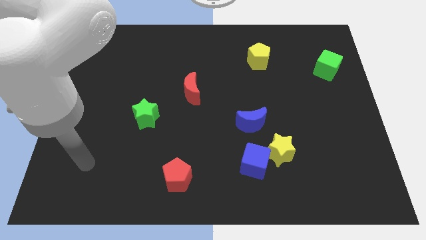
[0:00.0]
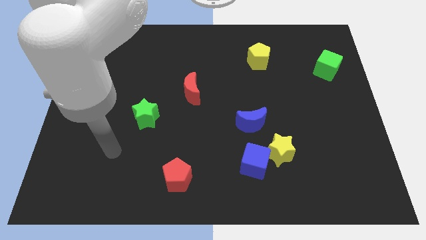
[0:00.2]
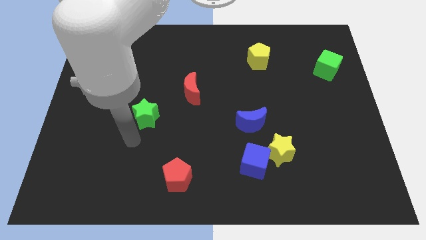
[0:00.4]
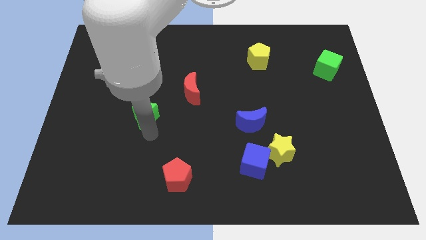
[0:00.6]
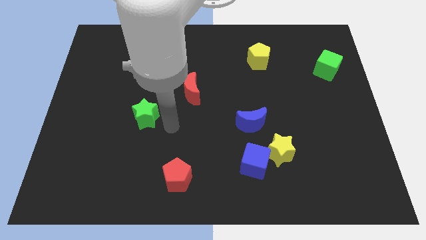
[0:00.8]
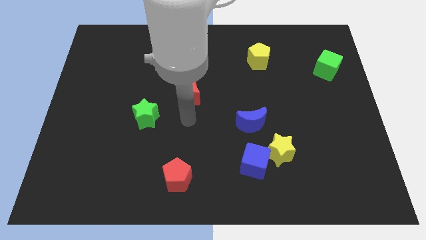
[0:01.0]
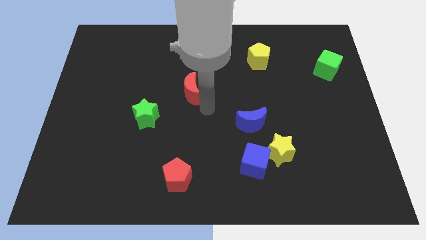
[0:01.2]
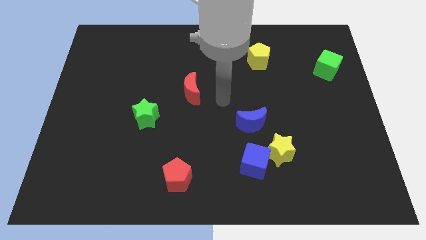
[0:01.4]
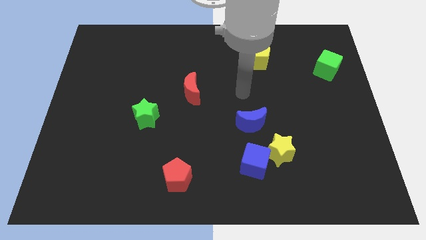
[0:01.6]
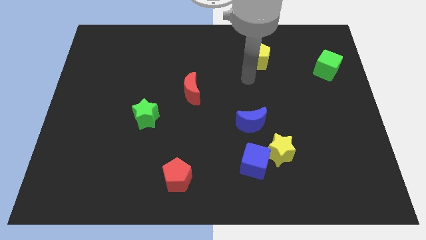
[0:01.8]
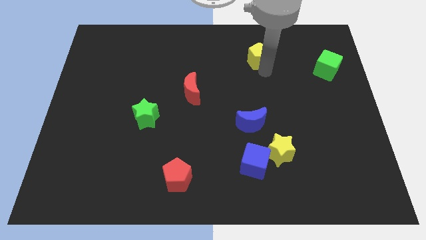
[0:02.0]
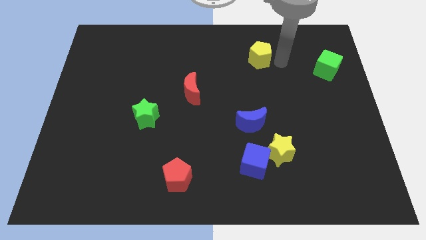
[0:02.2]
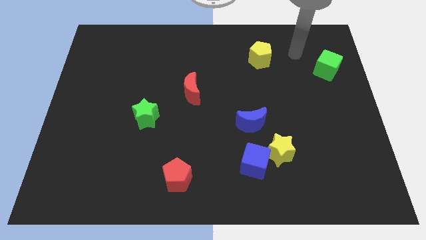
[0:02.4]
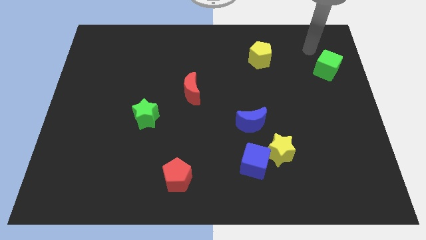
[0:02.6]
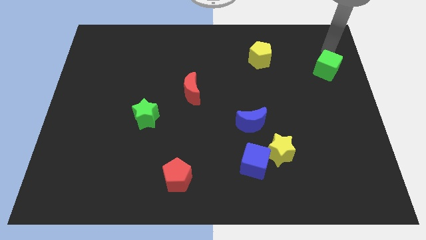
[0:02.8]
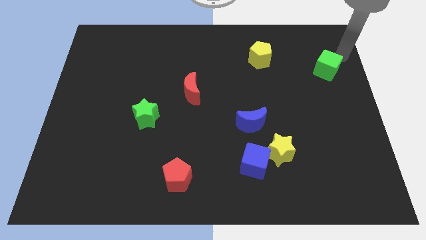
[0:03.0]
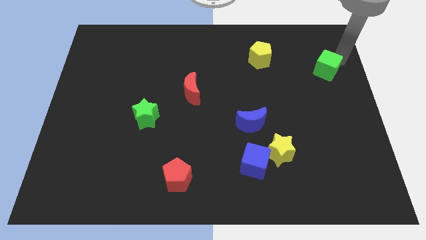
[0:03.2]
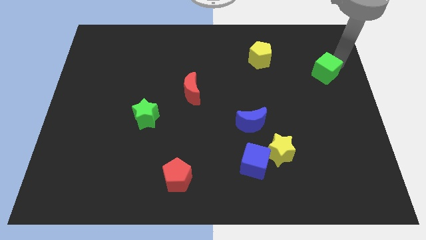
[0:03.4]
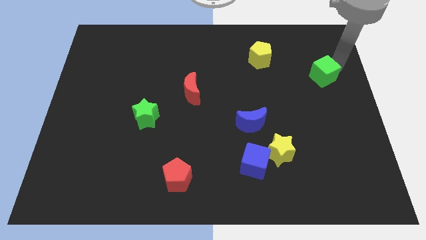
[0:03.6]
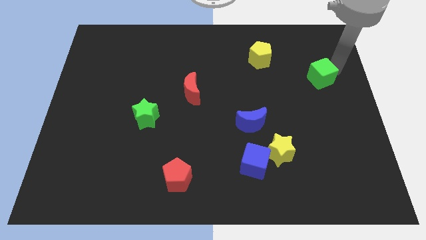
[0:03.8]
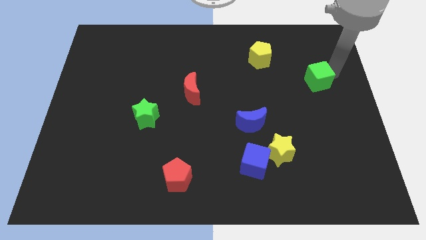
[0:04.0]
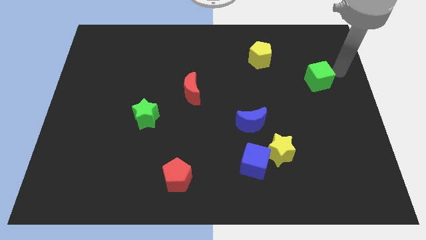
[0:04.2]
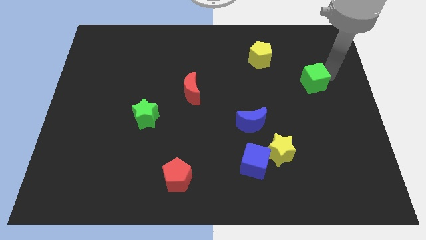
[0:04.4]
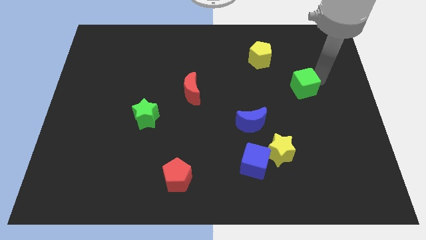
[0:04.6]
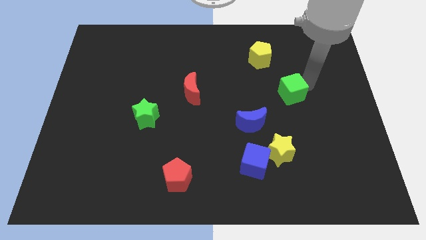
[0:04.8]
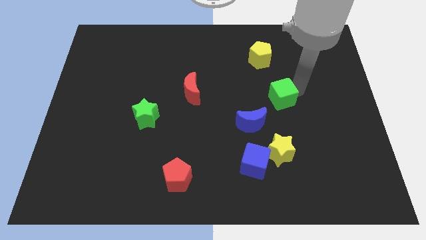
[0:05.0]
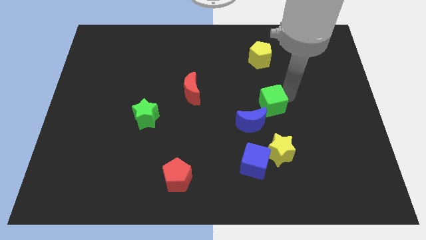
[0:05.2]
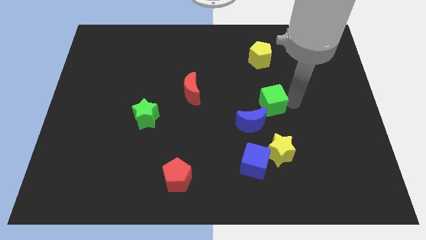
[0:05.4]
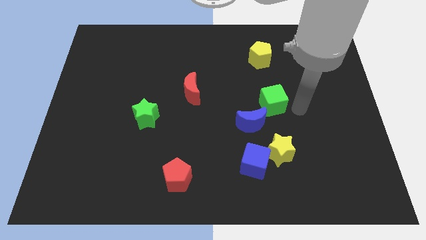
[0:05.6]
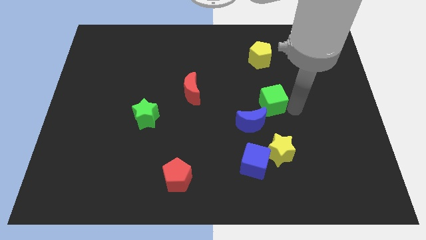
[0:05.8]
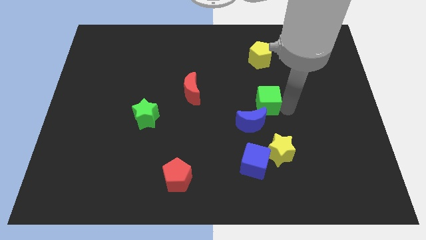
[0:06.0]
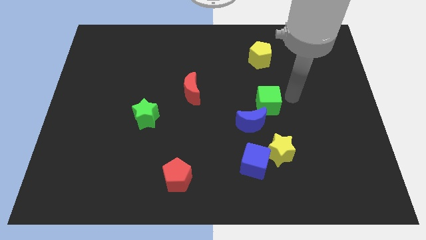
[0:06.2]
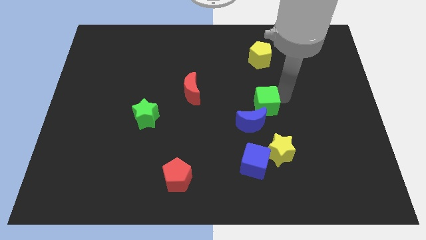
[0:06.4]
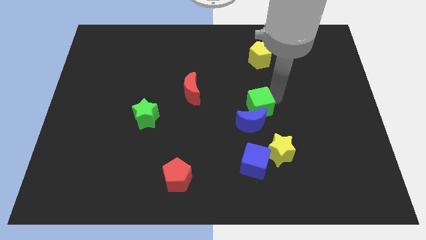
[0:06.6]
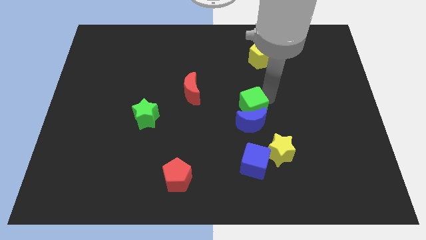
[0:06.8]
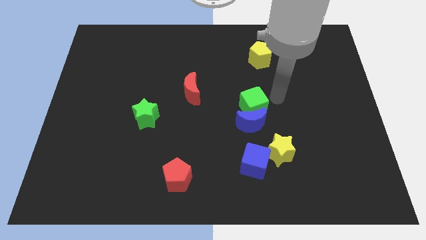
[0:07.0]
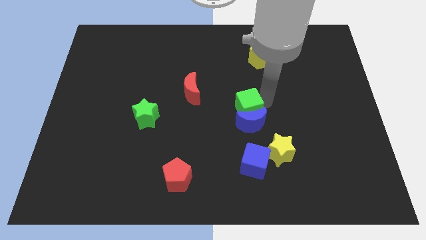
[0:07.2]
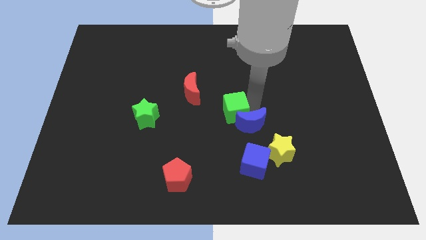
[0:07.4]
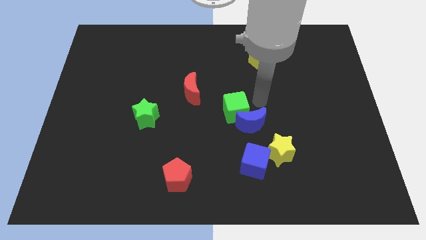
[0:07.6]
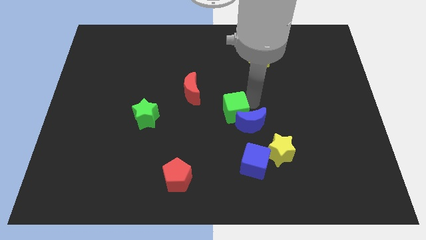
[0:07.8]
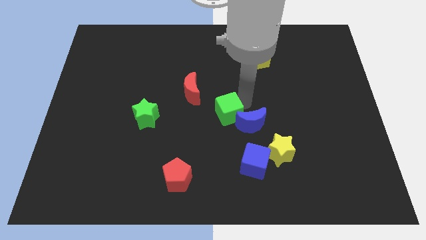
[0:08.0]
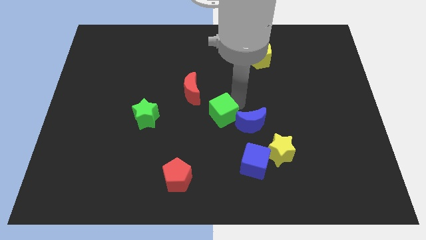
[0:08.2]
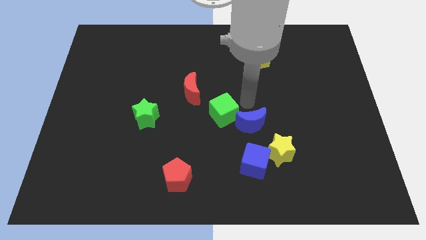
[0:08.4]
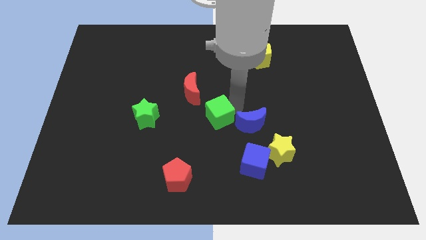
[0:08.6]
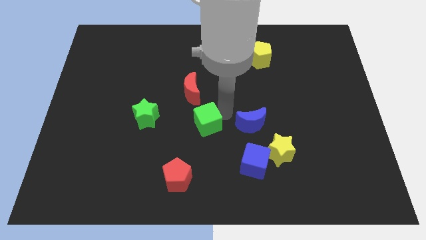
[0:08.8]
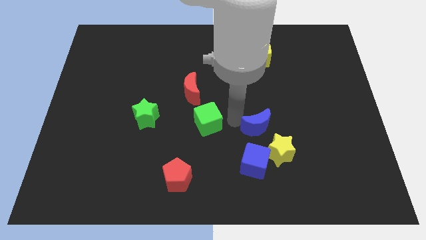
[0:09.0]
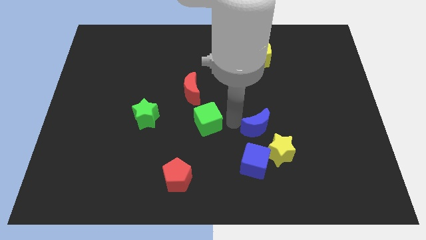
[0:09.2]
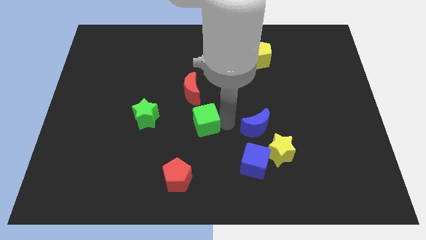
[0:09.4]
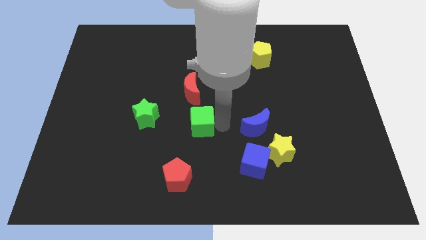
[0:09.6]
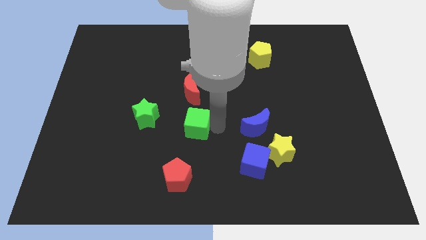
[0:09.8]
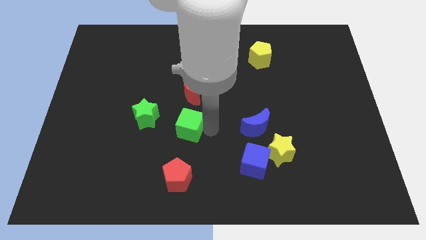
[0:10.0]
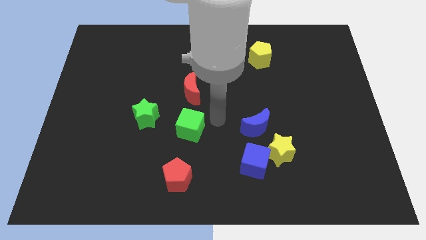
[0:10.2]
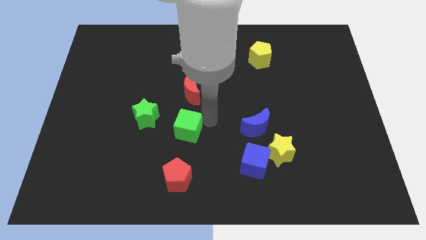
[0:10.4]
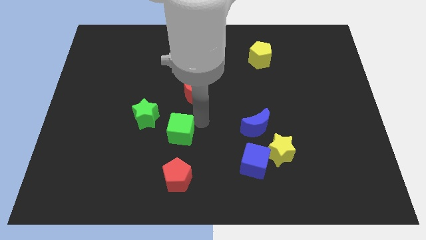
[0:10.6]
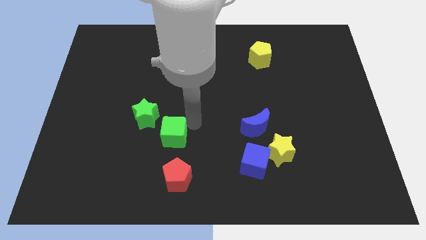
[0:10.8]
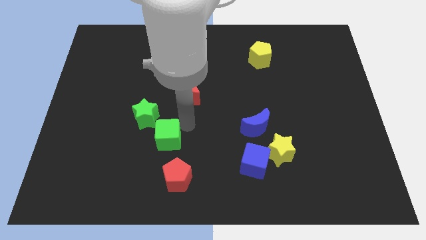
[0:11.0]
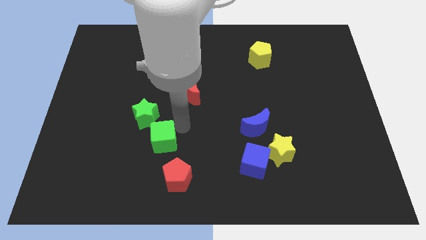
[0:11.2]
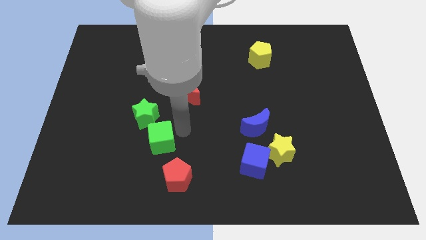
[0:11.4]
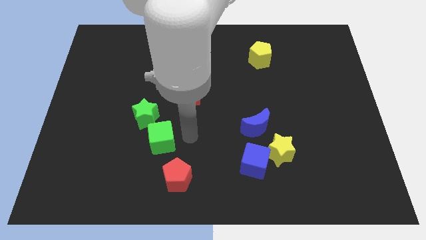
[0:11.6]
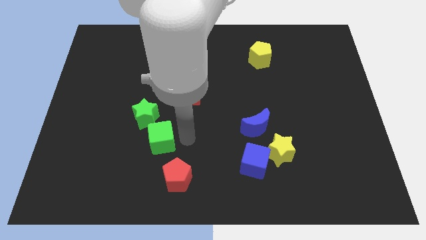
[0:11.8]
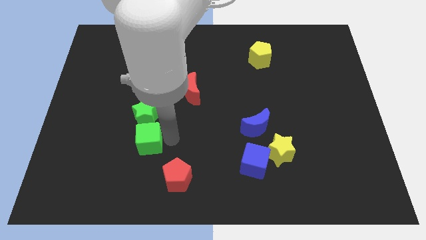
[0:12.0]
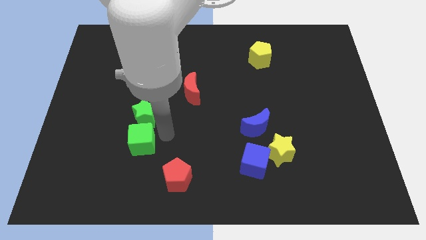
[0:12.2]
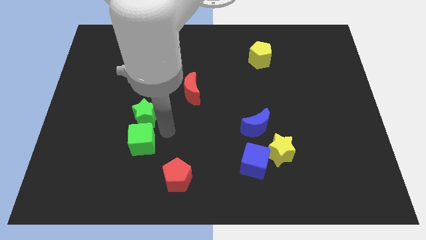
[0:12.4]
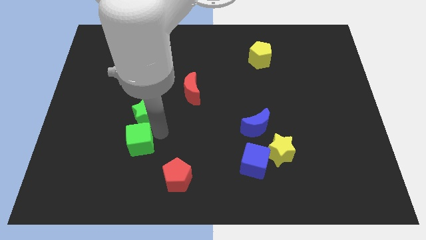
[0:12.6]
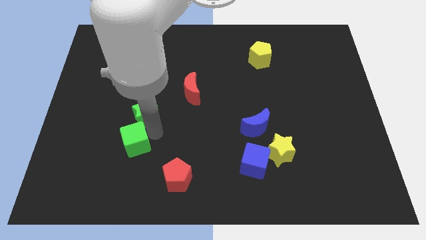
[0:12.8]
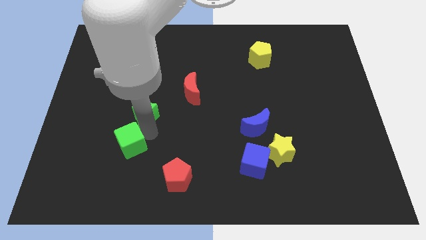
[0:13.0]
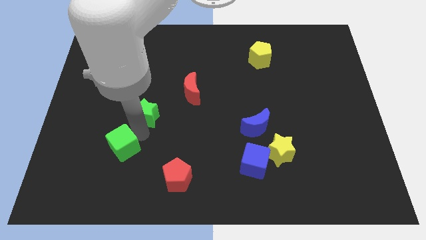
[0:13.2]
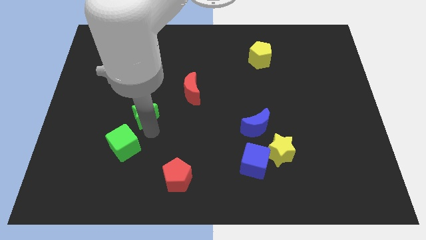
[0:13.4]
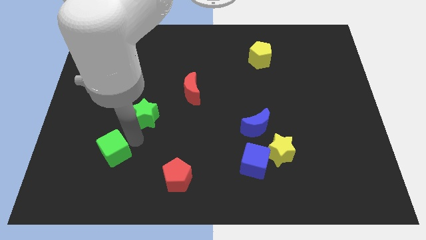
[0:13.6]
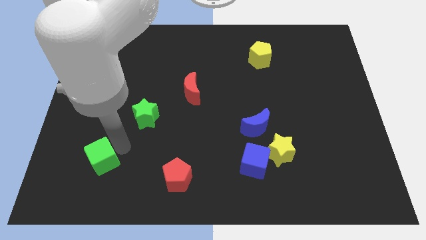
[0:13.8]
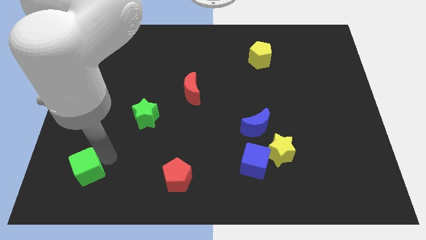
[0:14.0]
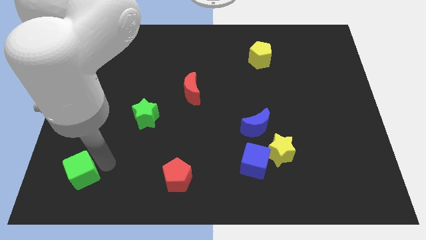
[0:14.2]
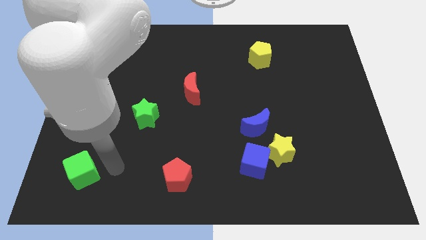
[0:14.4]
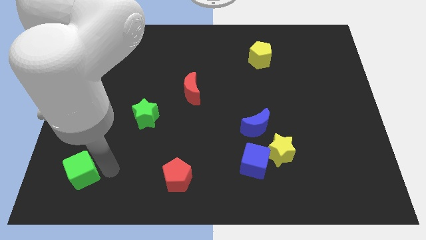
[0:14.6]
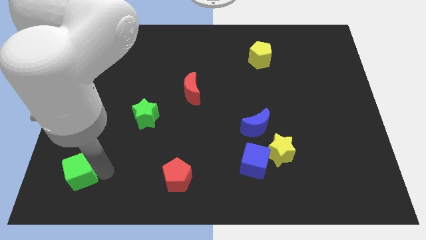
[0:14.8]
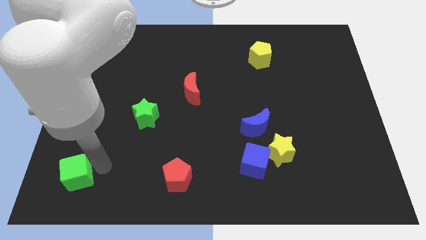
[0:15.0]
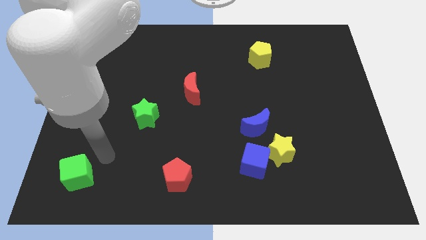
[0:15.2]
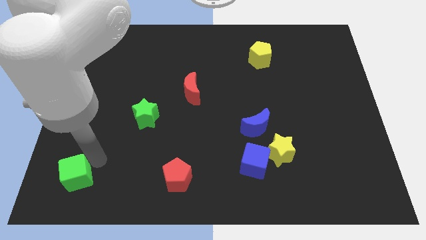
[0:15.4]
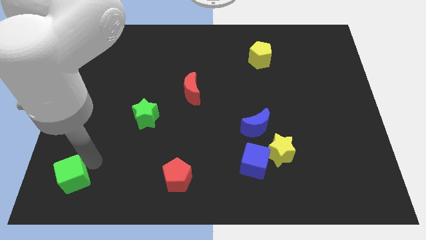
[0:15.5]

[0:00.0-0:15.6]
move the green cube to the lower left corner
